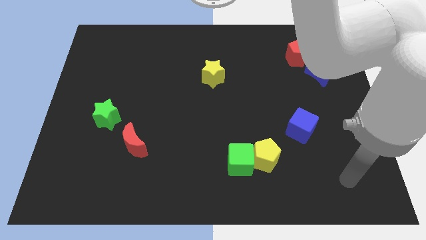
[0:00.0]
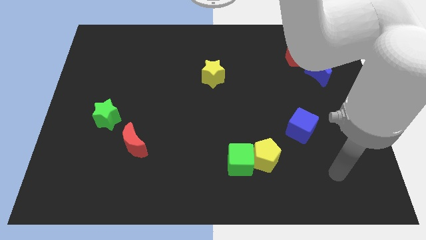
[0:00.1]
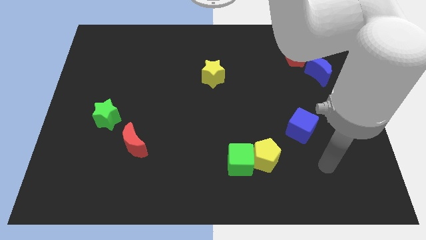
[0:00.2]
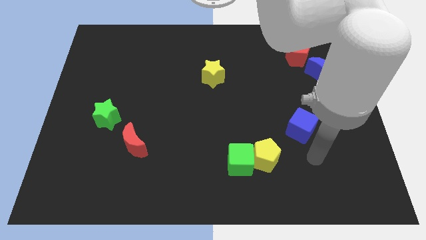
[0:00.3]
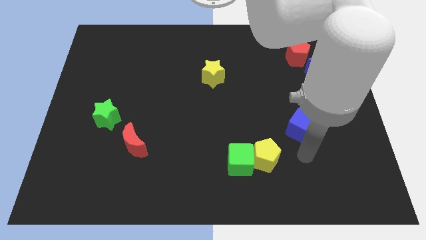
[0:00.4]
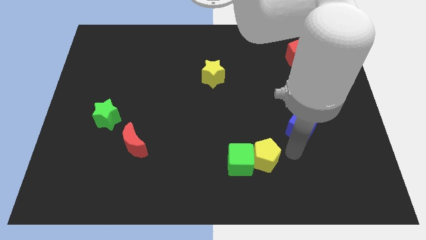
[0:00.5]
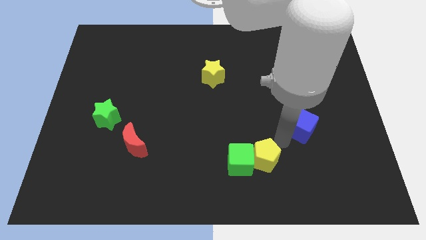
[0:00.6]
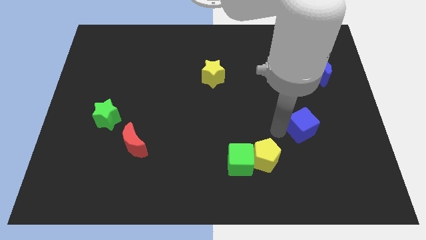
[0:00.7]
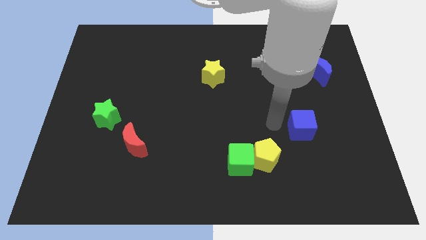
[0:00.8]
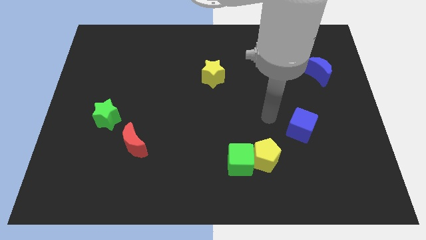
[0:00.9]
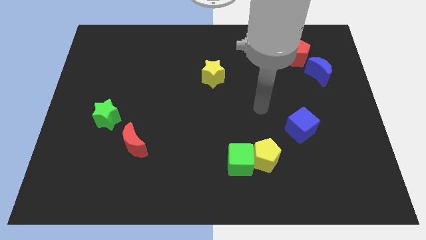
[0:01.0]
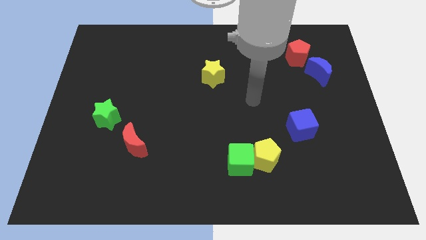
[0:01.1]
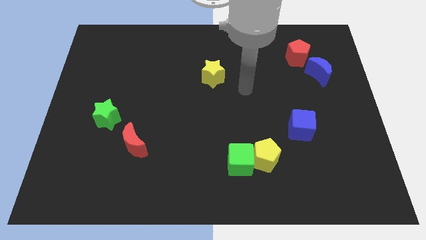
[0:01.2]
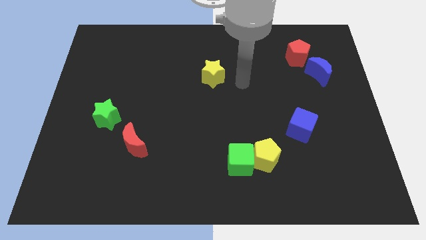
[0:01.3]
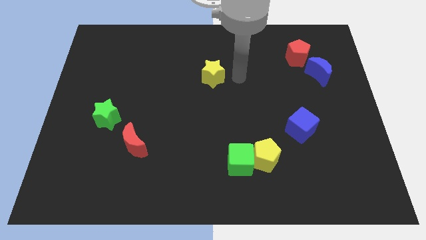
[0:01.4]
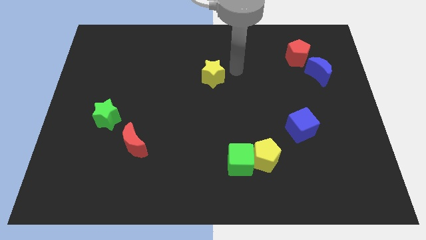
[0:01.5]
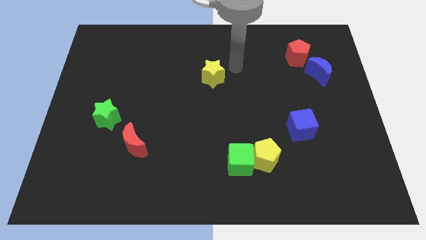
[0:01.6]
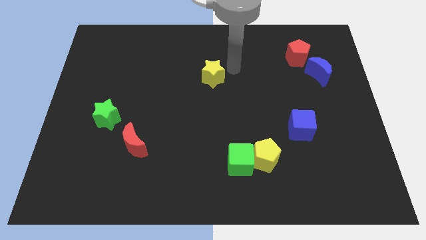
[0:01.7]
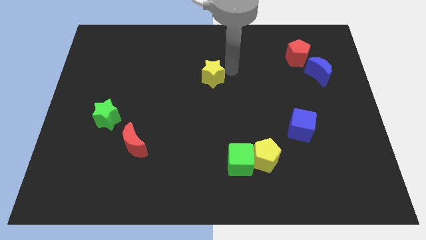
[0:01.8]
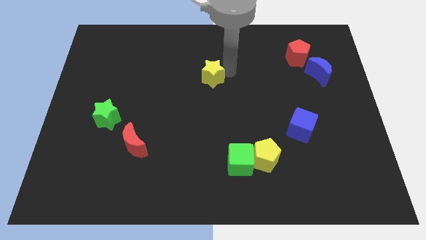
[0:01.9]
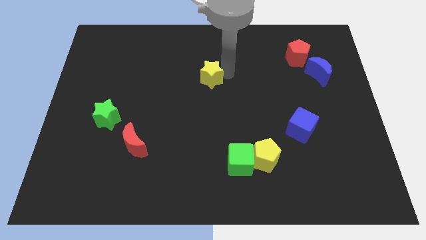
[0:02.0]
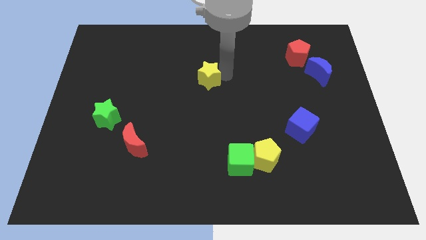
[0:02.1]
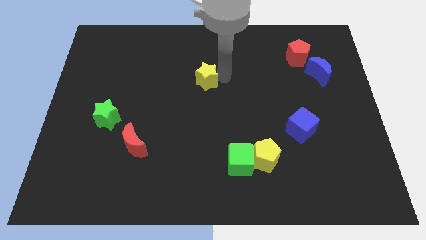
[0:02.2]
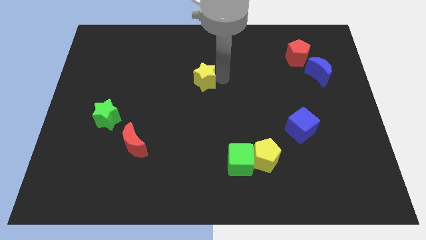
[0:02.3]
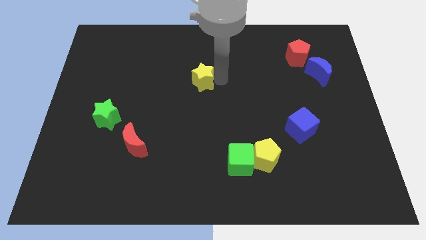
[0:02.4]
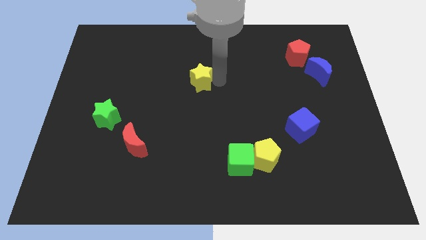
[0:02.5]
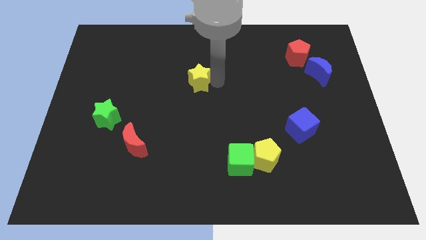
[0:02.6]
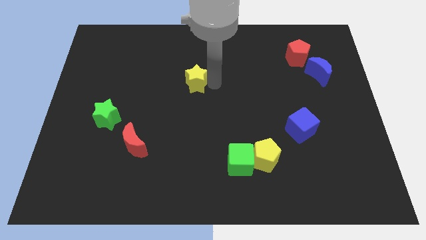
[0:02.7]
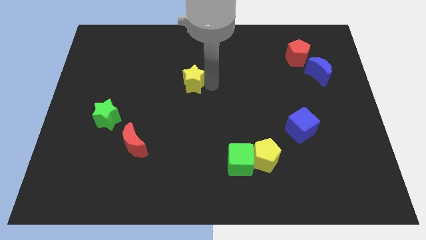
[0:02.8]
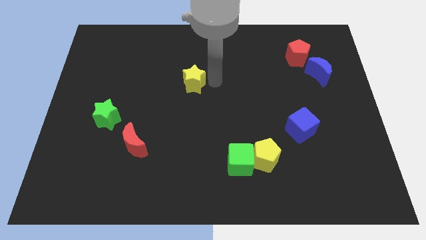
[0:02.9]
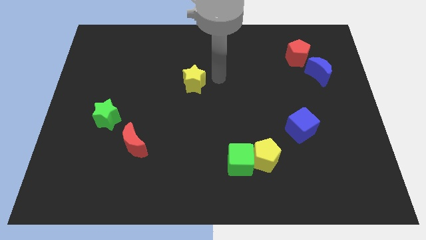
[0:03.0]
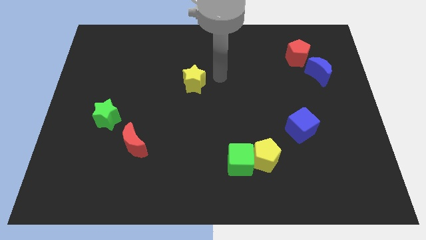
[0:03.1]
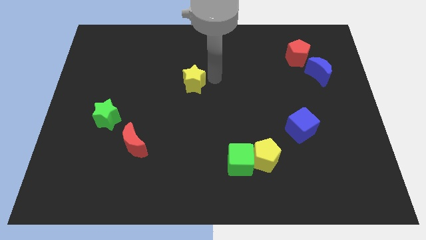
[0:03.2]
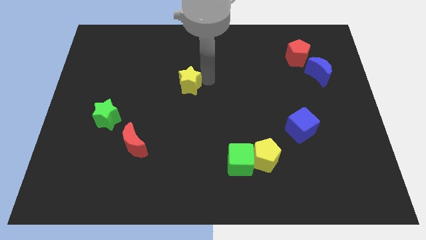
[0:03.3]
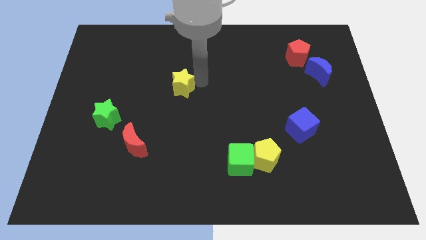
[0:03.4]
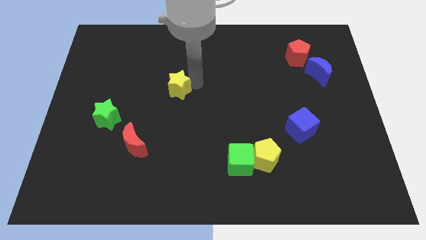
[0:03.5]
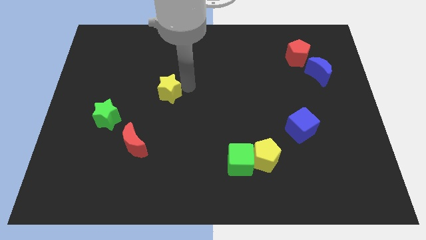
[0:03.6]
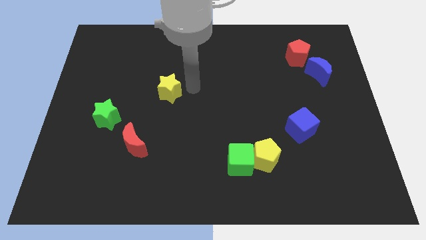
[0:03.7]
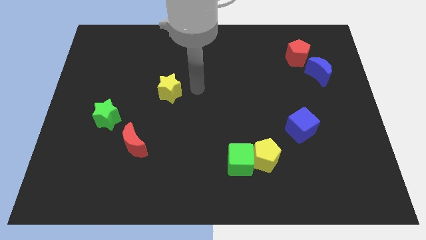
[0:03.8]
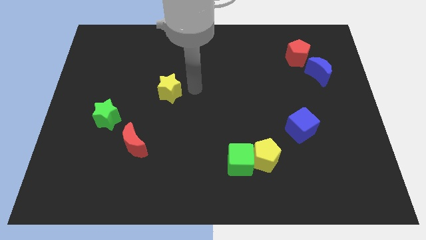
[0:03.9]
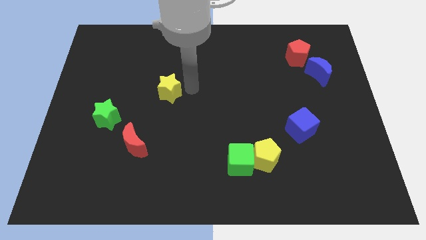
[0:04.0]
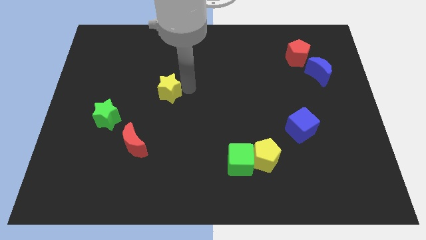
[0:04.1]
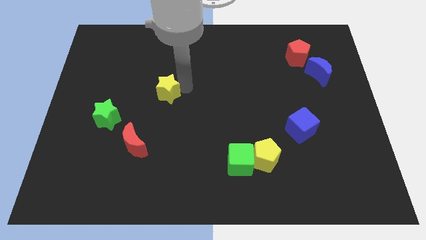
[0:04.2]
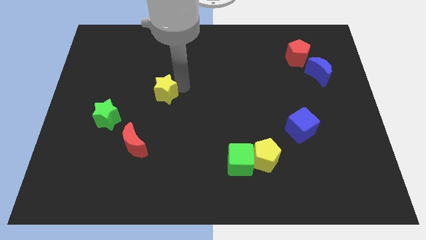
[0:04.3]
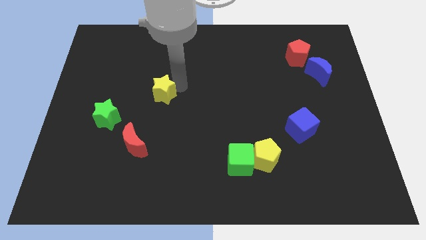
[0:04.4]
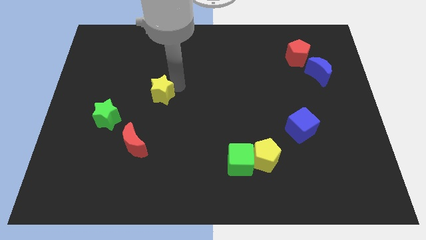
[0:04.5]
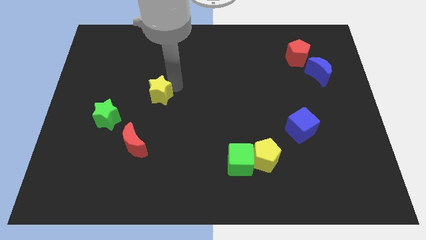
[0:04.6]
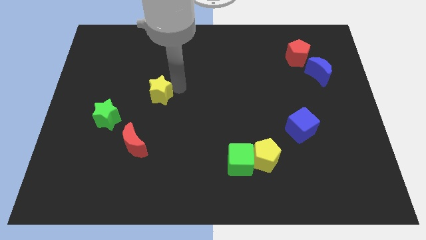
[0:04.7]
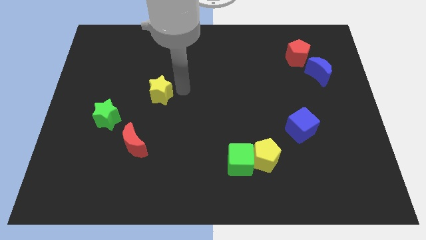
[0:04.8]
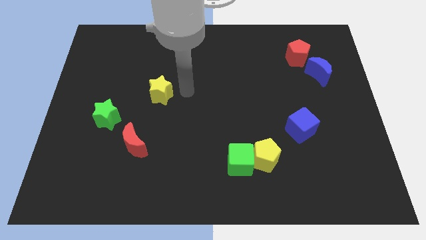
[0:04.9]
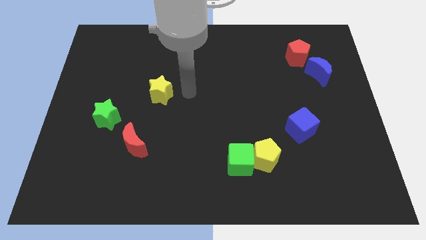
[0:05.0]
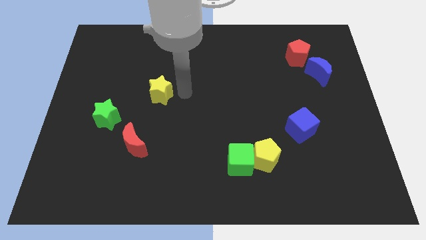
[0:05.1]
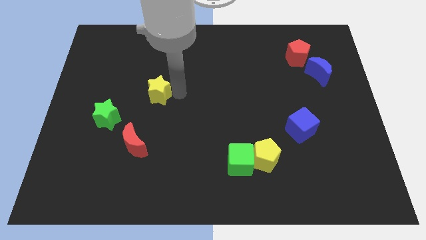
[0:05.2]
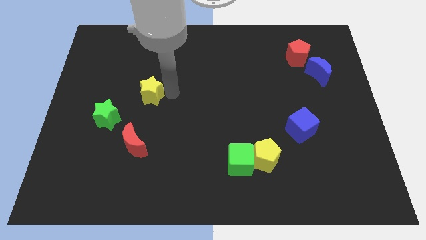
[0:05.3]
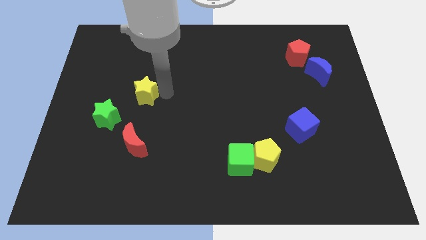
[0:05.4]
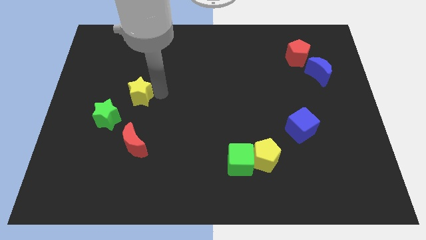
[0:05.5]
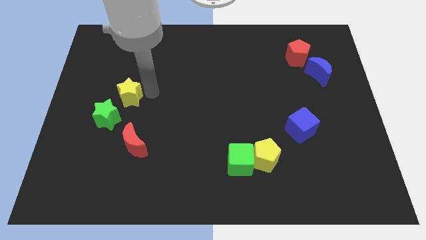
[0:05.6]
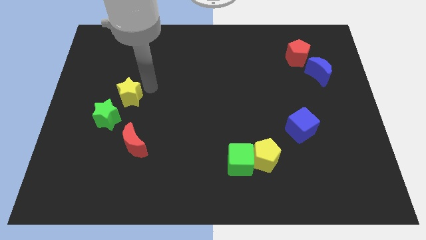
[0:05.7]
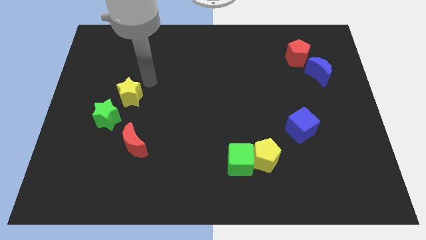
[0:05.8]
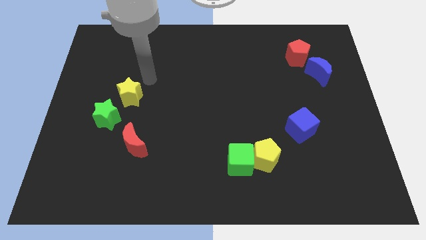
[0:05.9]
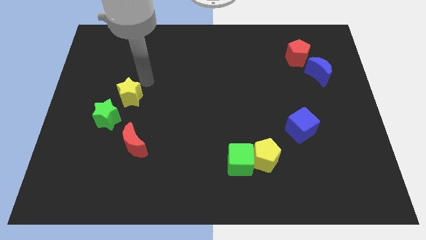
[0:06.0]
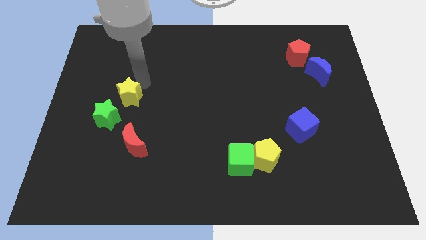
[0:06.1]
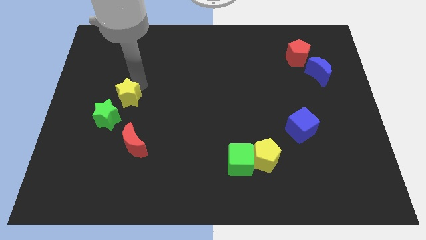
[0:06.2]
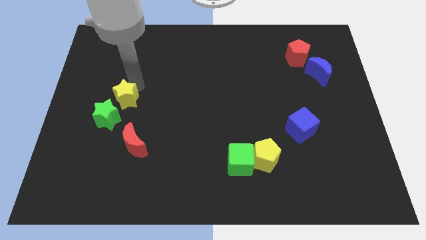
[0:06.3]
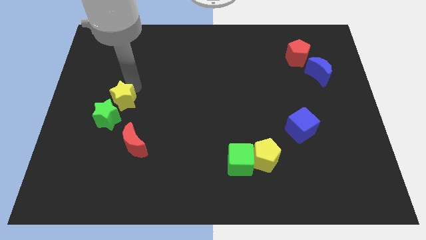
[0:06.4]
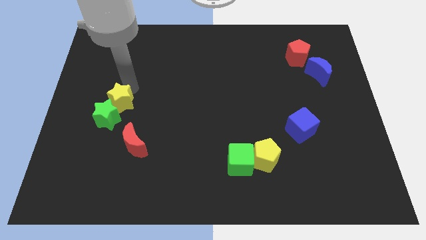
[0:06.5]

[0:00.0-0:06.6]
push the yellow star next to the green star
